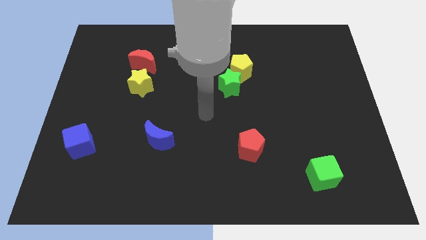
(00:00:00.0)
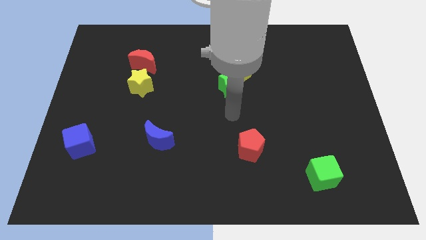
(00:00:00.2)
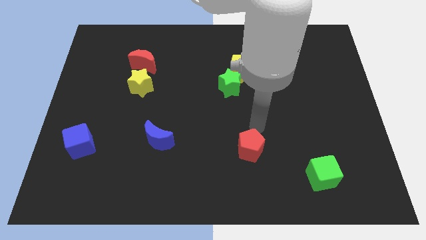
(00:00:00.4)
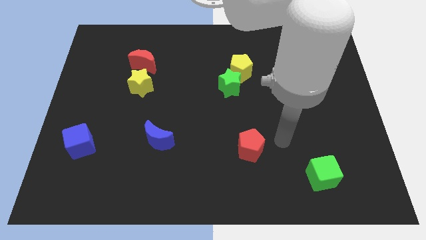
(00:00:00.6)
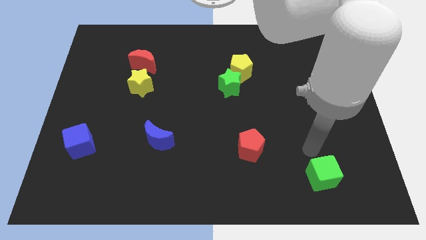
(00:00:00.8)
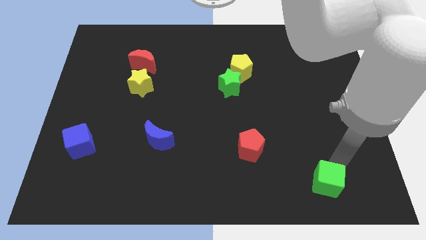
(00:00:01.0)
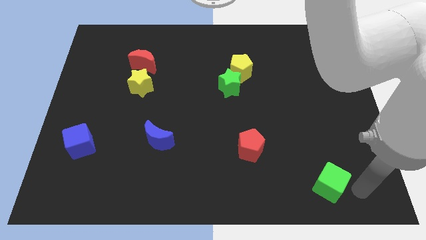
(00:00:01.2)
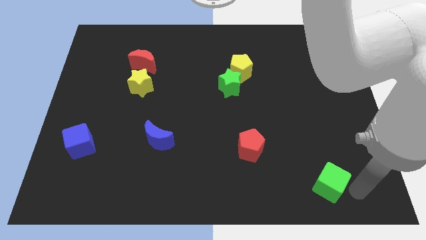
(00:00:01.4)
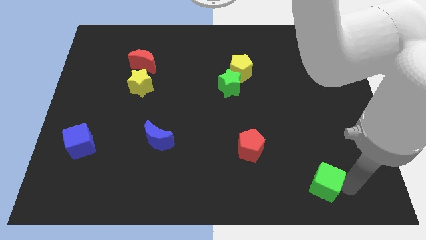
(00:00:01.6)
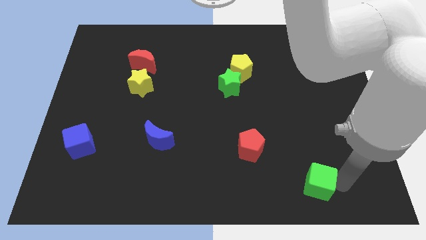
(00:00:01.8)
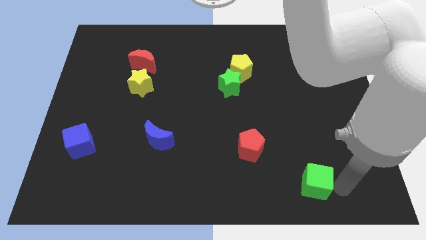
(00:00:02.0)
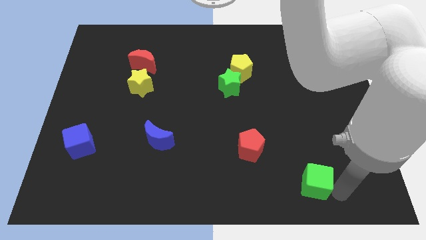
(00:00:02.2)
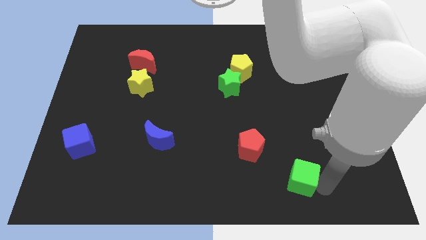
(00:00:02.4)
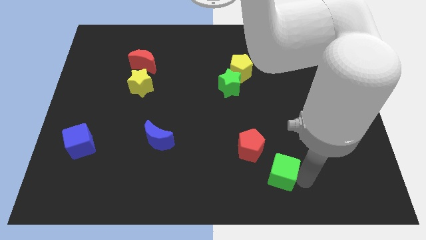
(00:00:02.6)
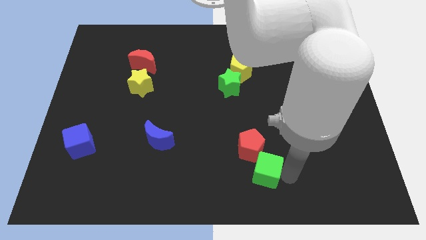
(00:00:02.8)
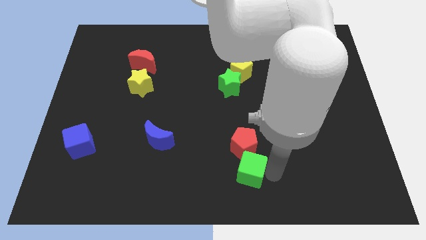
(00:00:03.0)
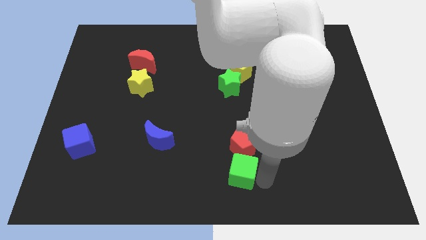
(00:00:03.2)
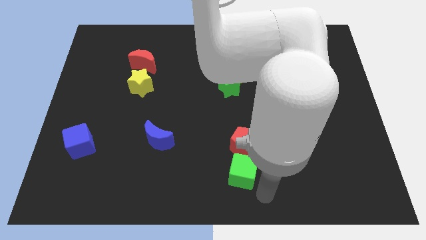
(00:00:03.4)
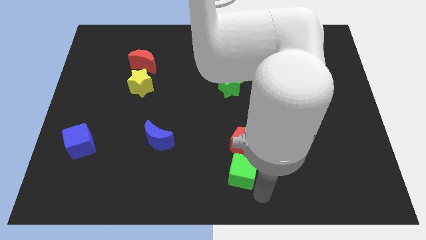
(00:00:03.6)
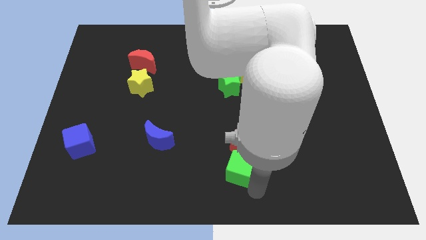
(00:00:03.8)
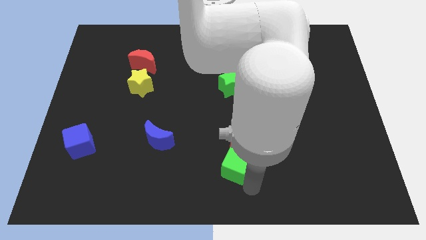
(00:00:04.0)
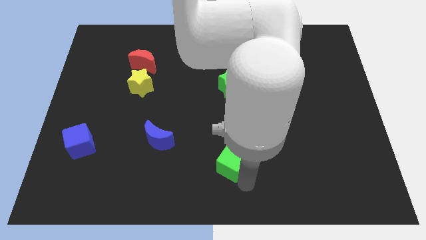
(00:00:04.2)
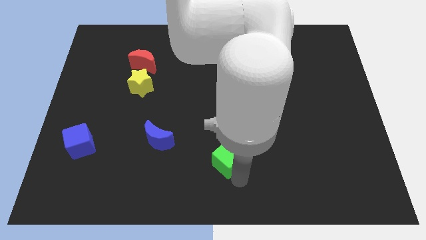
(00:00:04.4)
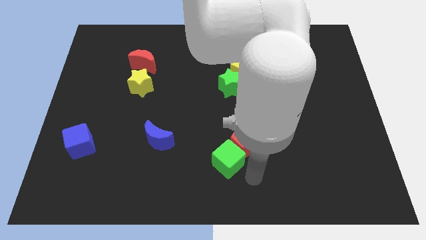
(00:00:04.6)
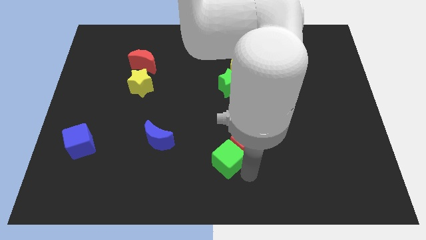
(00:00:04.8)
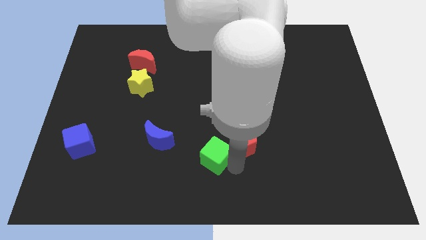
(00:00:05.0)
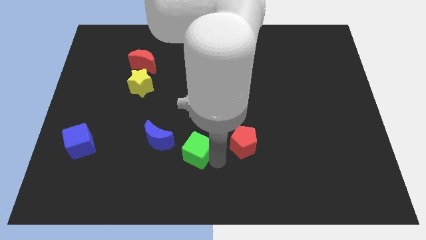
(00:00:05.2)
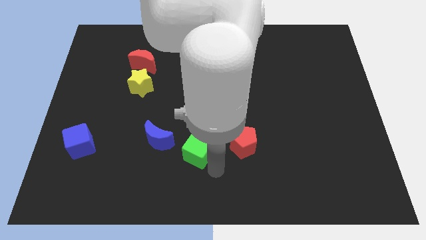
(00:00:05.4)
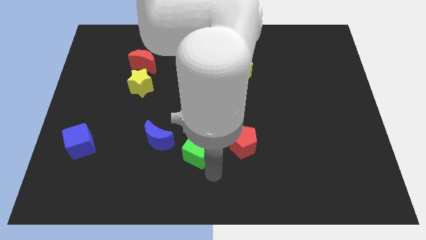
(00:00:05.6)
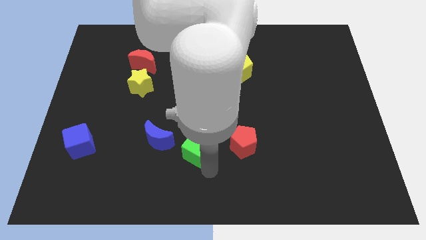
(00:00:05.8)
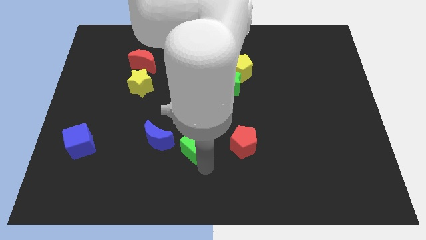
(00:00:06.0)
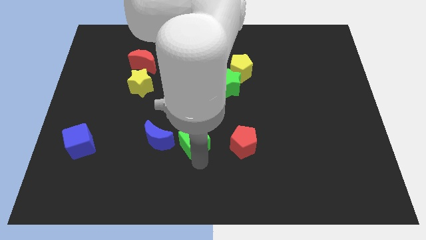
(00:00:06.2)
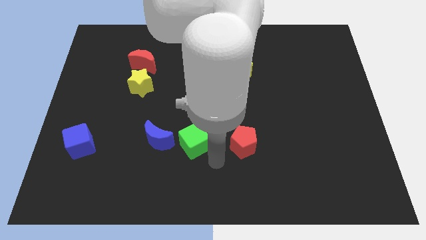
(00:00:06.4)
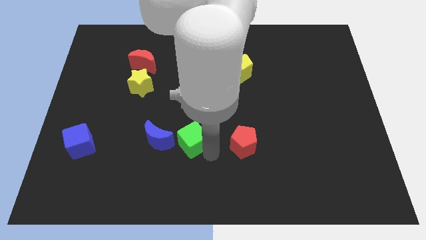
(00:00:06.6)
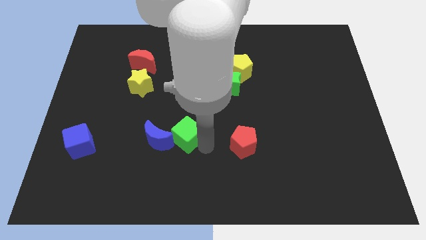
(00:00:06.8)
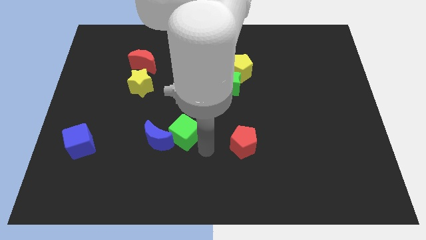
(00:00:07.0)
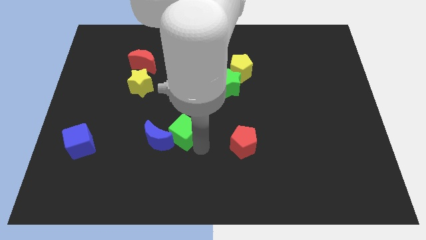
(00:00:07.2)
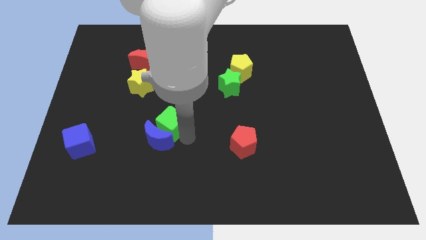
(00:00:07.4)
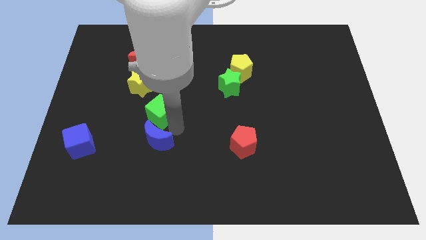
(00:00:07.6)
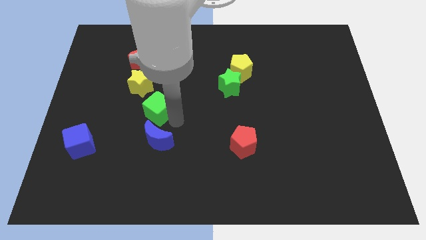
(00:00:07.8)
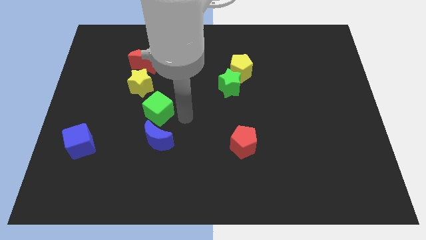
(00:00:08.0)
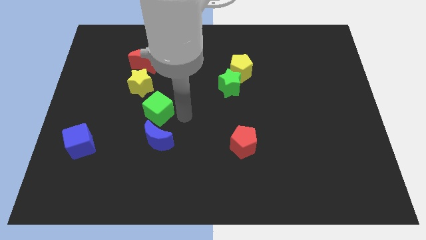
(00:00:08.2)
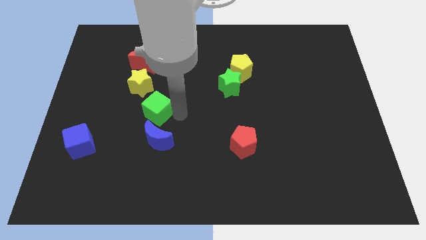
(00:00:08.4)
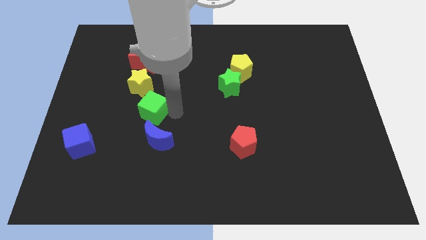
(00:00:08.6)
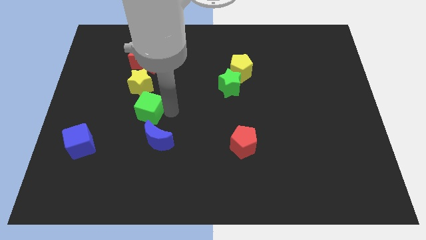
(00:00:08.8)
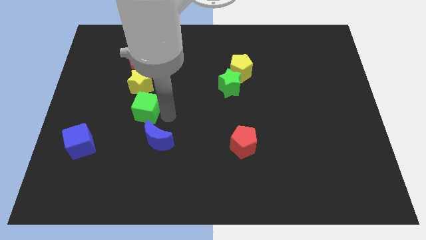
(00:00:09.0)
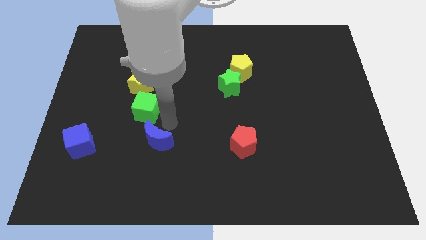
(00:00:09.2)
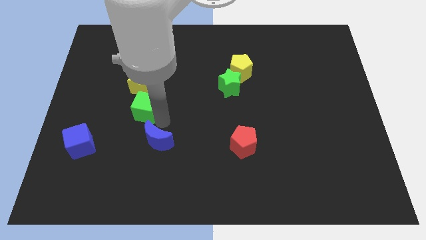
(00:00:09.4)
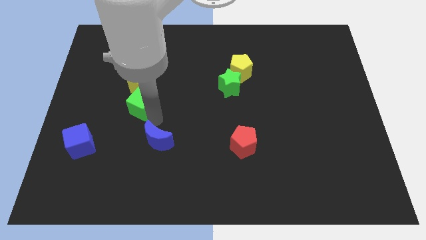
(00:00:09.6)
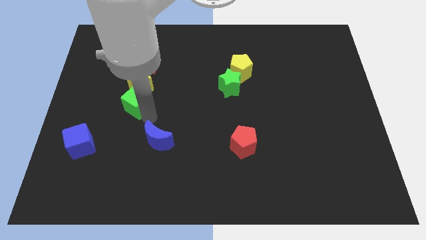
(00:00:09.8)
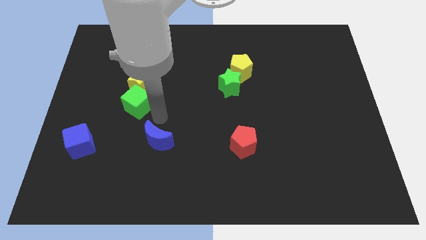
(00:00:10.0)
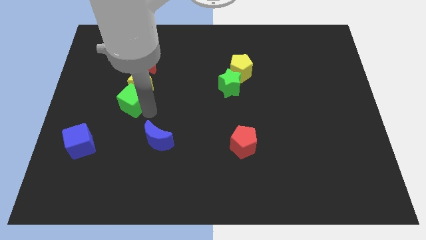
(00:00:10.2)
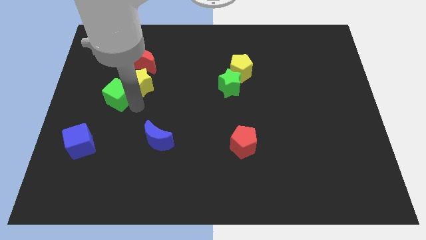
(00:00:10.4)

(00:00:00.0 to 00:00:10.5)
put the green cube to the left side of the yellow star

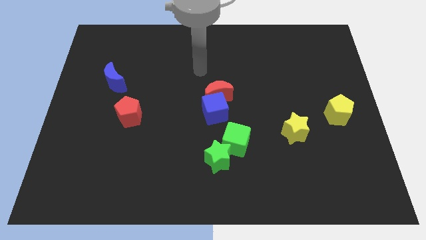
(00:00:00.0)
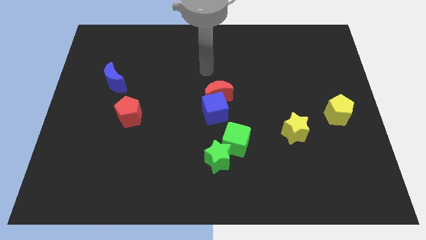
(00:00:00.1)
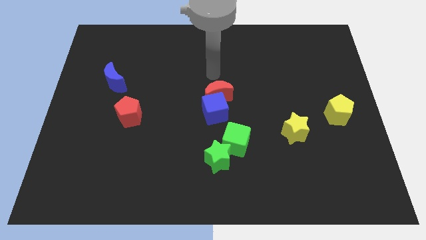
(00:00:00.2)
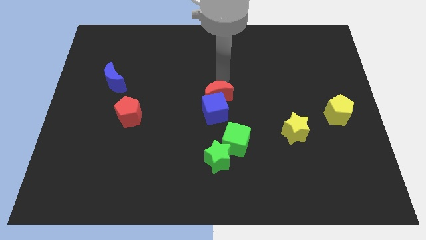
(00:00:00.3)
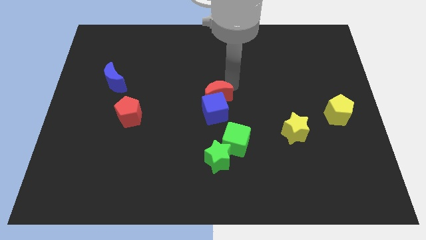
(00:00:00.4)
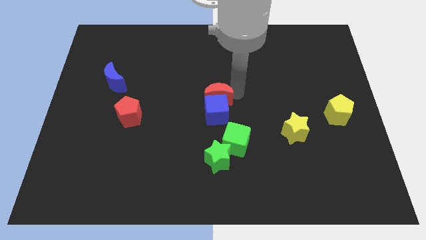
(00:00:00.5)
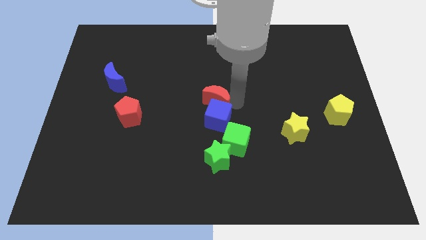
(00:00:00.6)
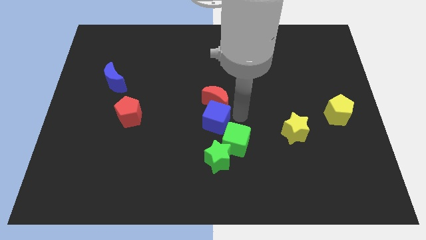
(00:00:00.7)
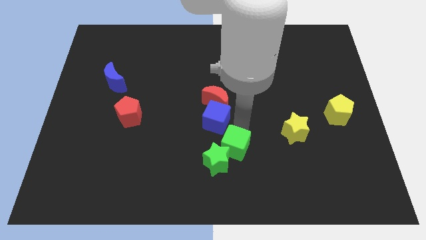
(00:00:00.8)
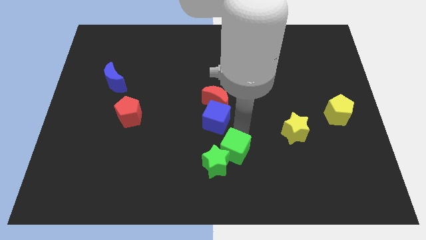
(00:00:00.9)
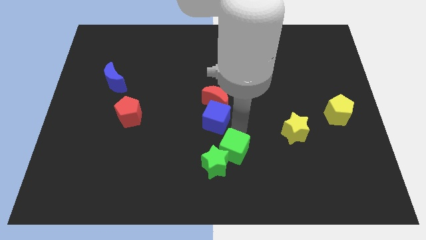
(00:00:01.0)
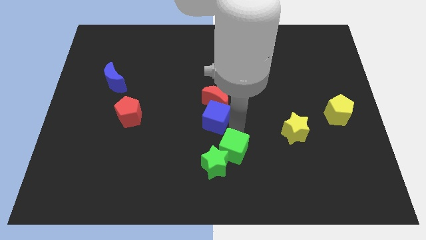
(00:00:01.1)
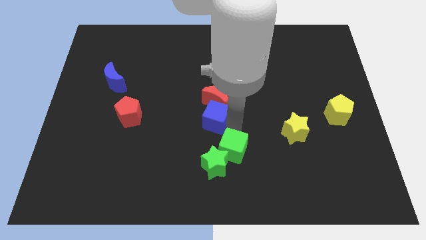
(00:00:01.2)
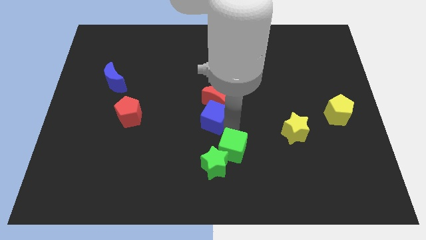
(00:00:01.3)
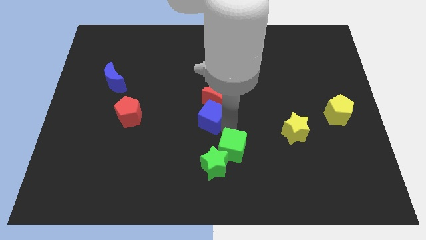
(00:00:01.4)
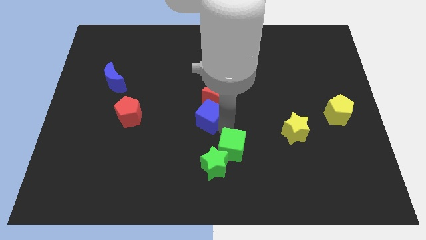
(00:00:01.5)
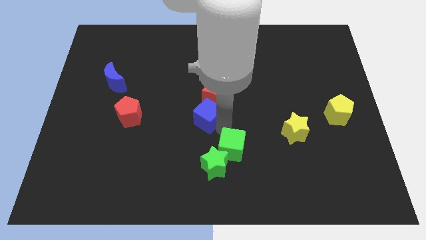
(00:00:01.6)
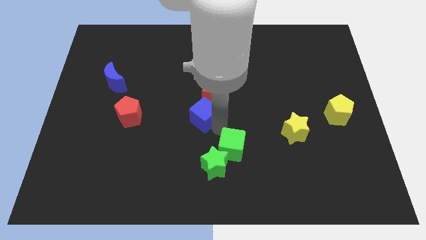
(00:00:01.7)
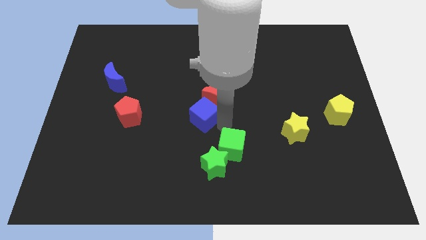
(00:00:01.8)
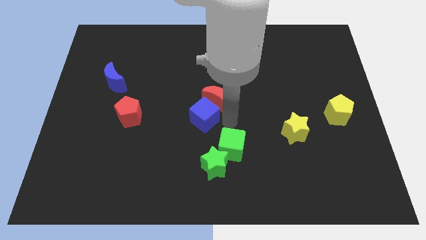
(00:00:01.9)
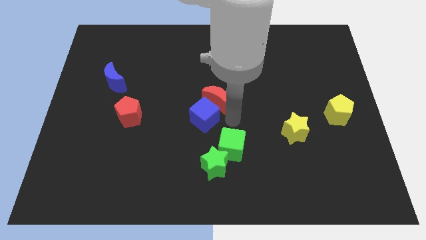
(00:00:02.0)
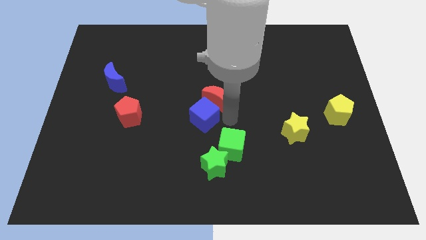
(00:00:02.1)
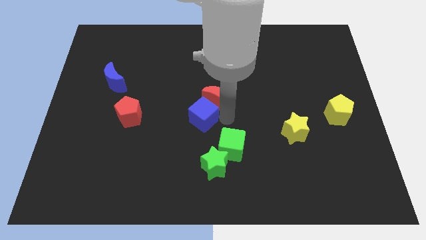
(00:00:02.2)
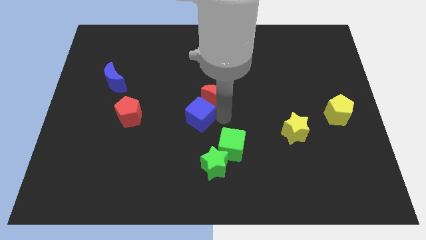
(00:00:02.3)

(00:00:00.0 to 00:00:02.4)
slide the blue cube right of the red pentagon
